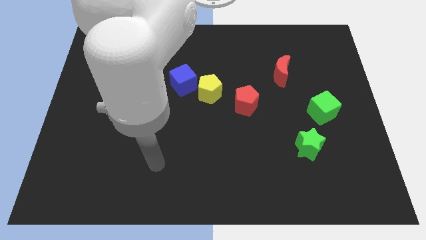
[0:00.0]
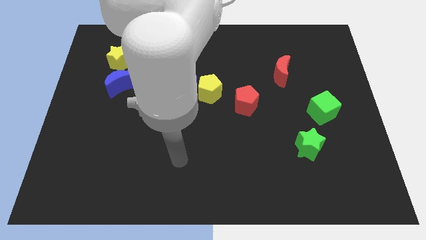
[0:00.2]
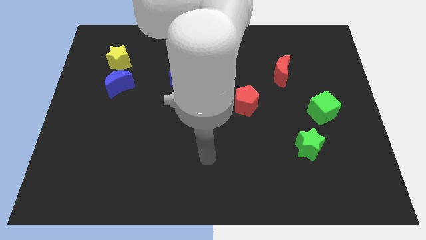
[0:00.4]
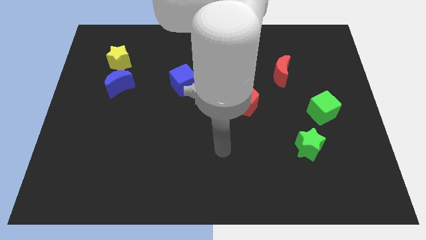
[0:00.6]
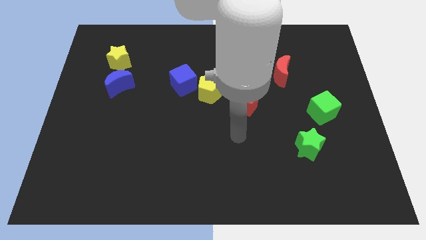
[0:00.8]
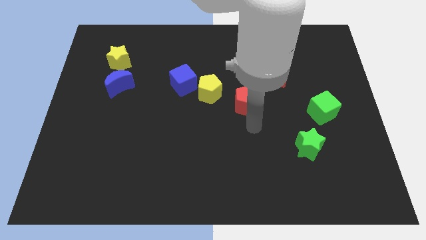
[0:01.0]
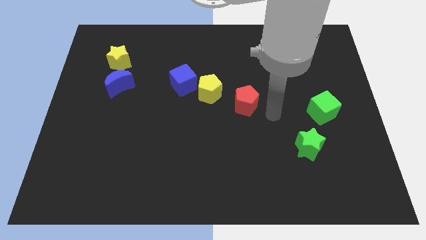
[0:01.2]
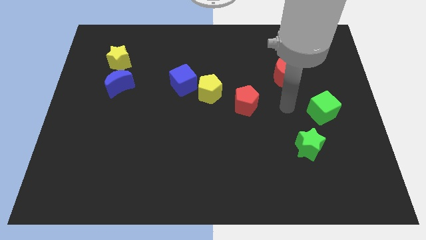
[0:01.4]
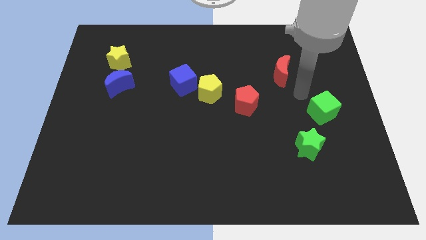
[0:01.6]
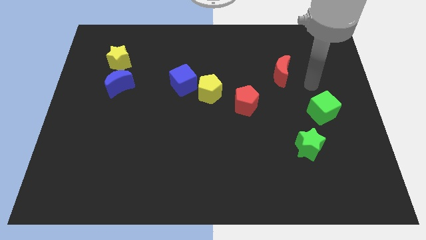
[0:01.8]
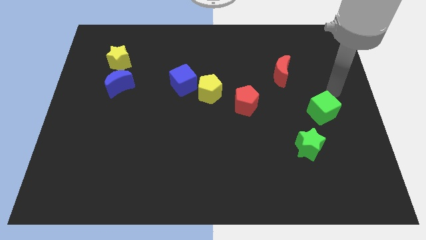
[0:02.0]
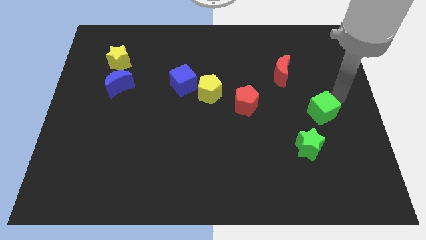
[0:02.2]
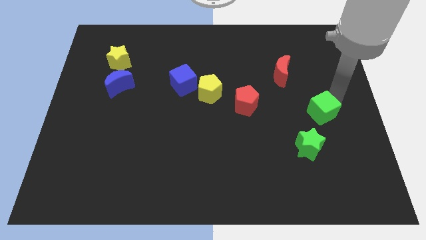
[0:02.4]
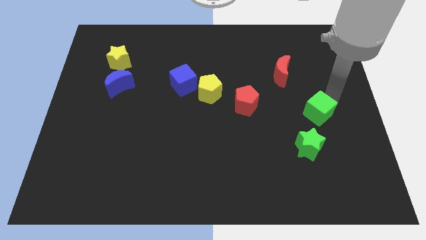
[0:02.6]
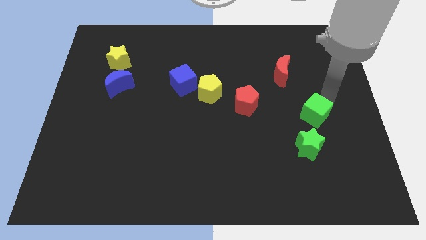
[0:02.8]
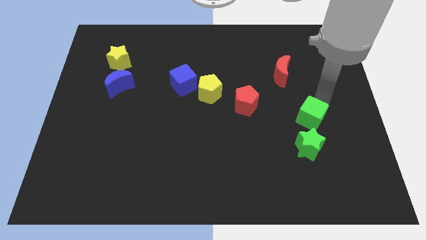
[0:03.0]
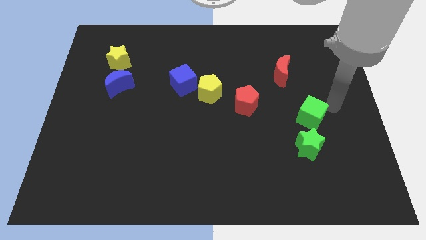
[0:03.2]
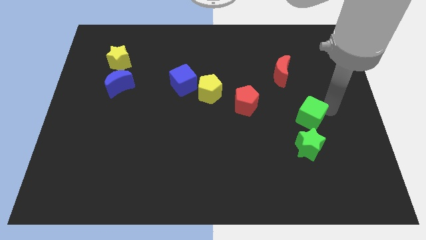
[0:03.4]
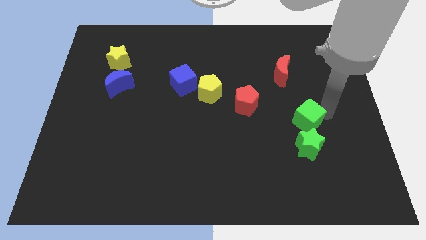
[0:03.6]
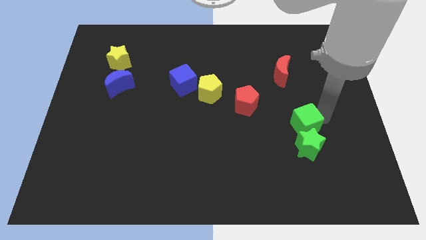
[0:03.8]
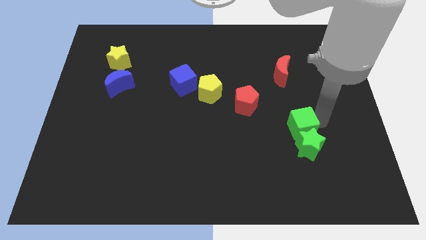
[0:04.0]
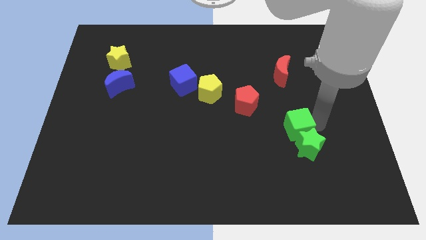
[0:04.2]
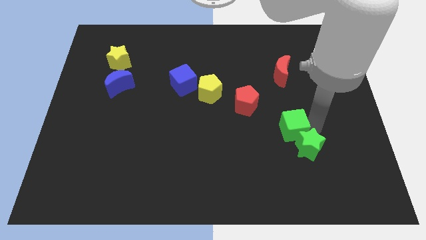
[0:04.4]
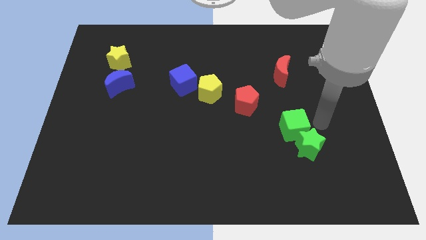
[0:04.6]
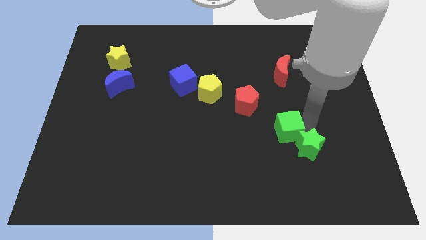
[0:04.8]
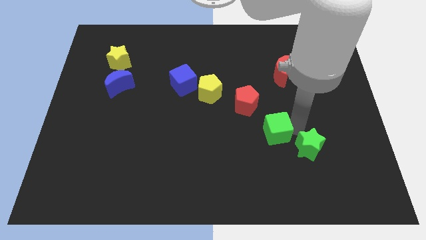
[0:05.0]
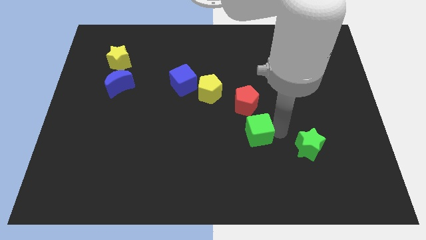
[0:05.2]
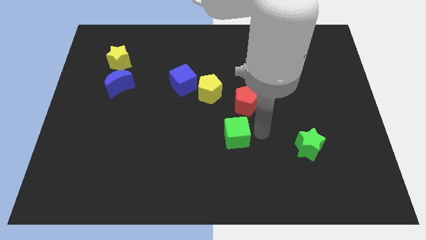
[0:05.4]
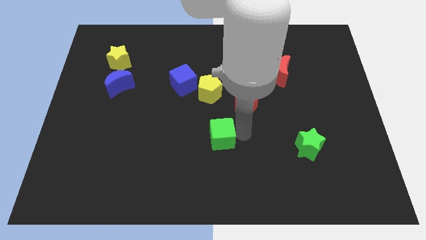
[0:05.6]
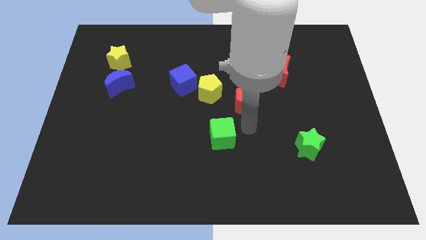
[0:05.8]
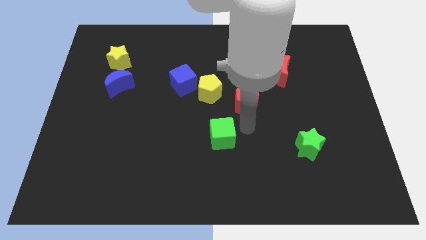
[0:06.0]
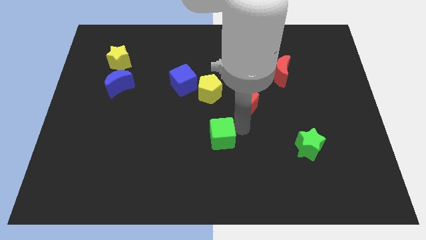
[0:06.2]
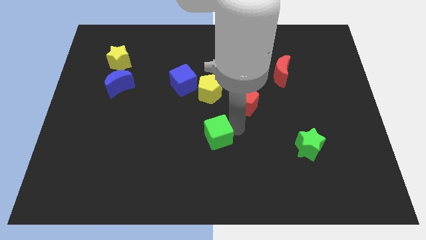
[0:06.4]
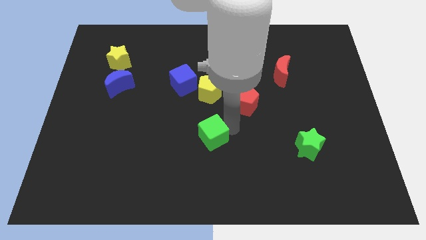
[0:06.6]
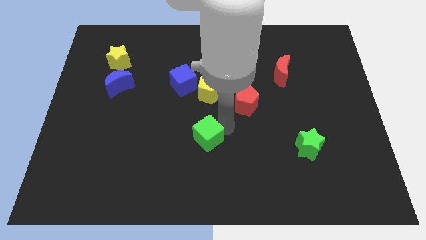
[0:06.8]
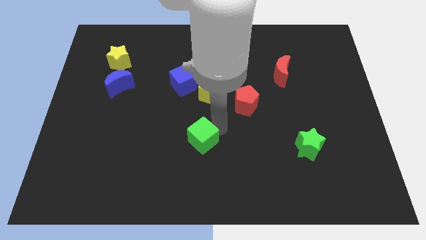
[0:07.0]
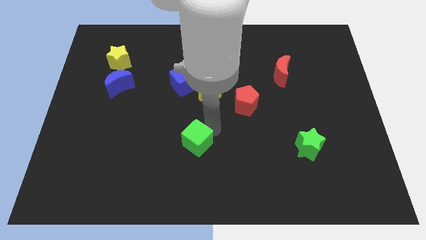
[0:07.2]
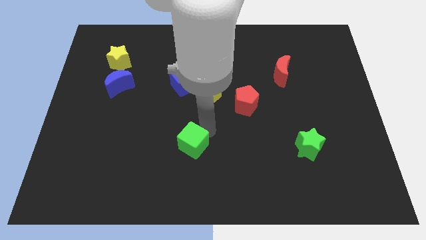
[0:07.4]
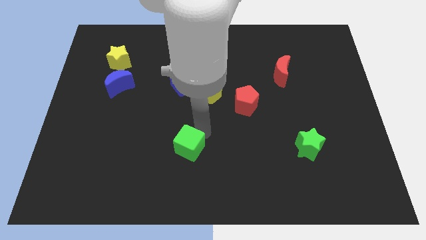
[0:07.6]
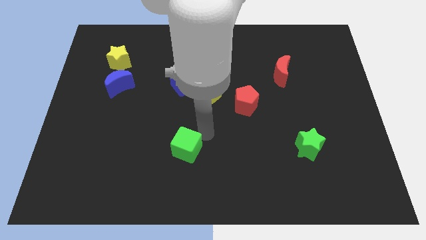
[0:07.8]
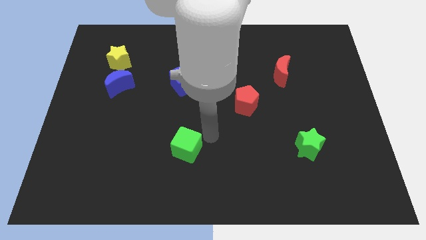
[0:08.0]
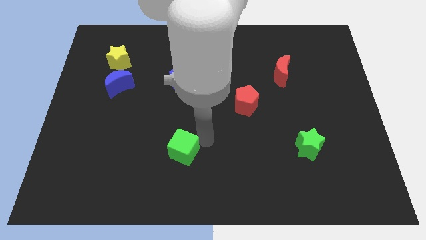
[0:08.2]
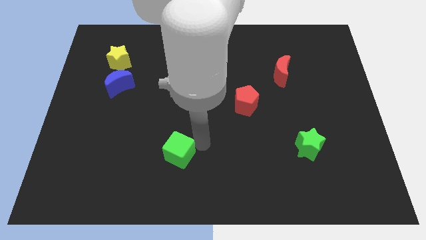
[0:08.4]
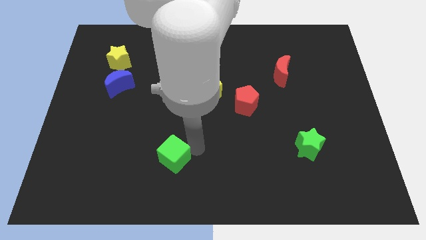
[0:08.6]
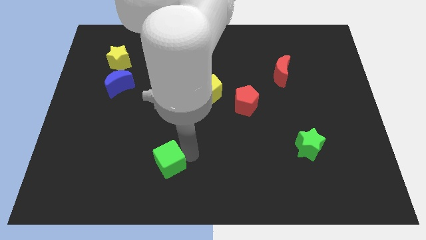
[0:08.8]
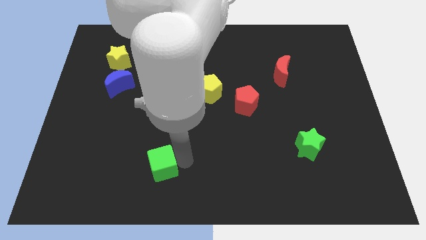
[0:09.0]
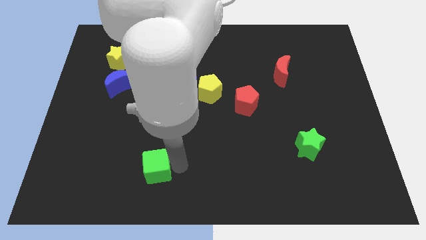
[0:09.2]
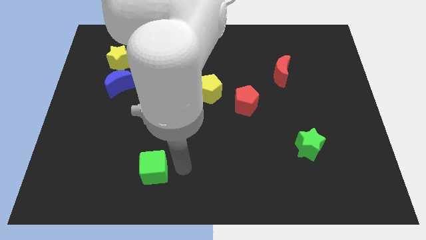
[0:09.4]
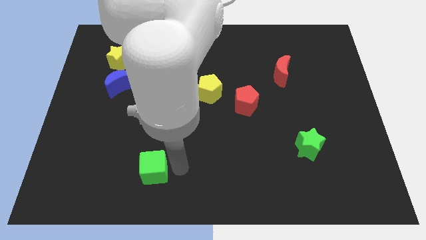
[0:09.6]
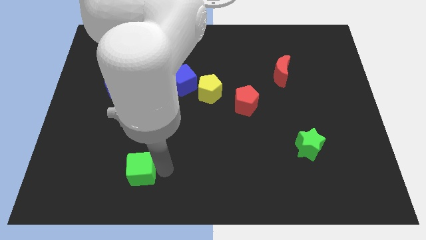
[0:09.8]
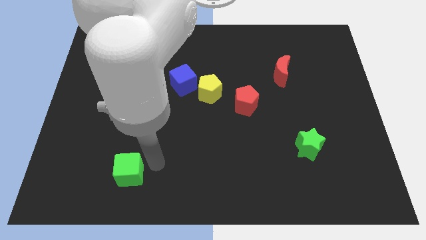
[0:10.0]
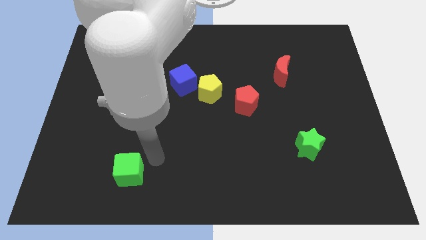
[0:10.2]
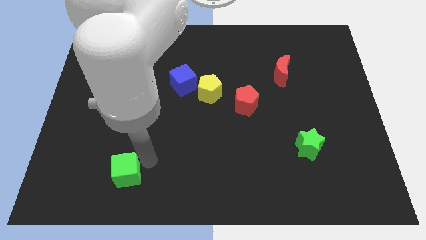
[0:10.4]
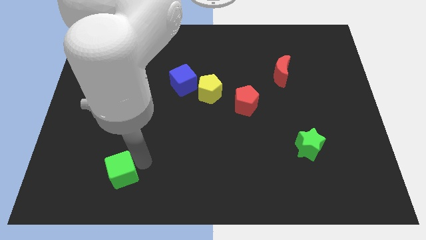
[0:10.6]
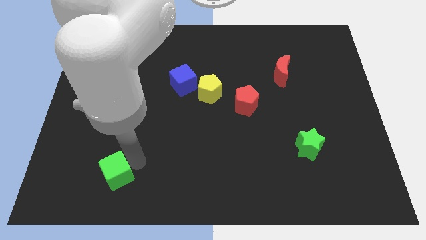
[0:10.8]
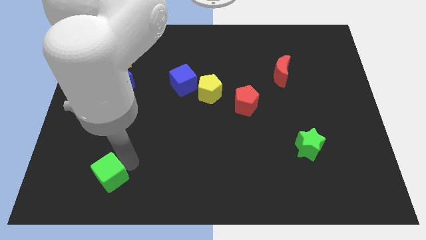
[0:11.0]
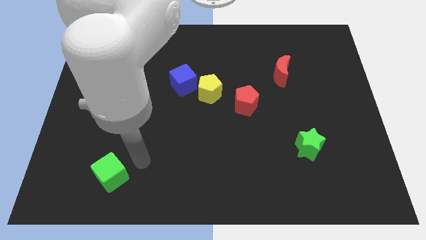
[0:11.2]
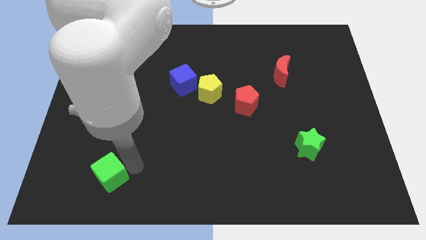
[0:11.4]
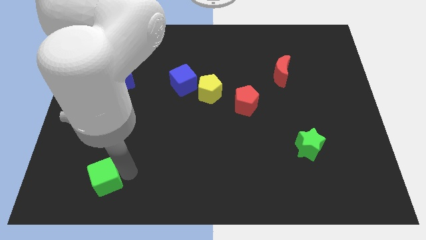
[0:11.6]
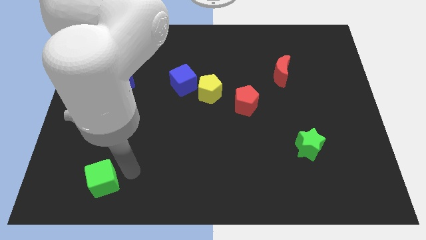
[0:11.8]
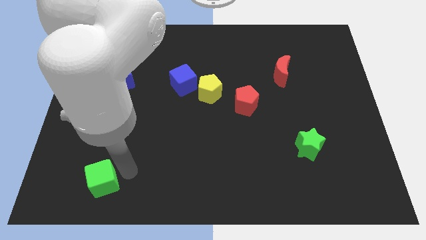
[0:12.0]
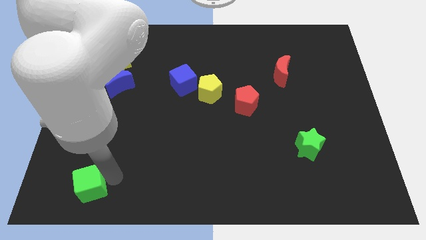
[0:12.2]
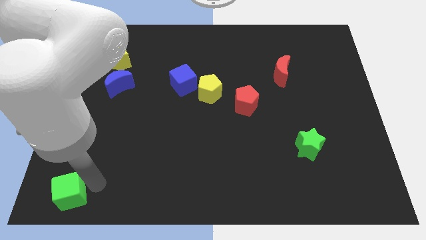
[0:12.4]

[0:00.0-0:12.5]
move the green cube to the lower left corner

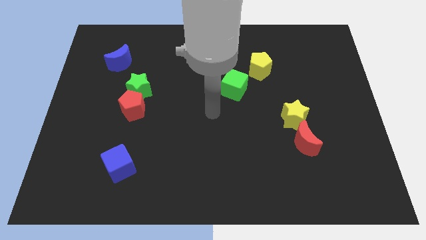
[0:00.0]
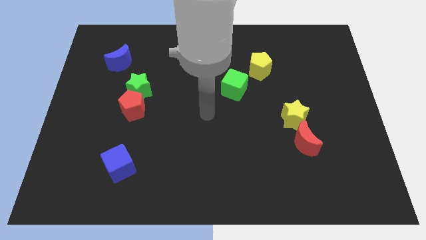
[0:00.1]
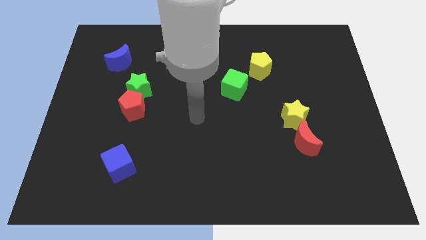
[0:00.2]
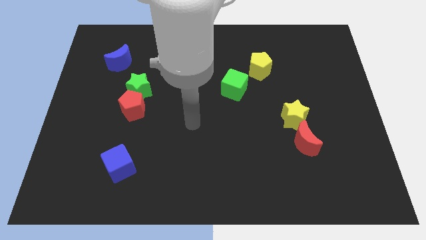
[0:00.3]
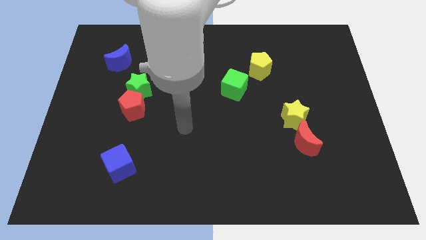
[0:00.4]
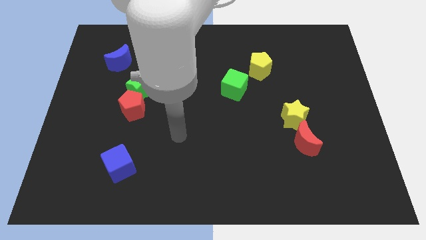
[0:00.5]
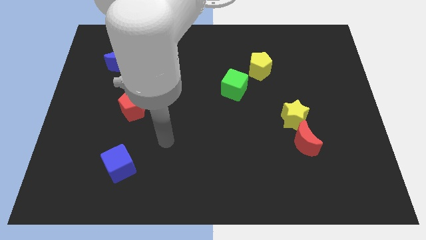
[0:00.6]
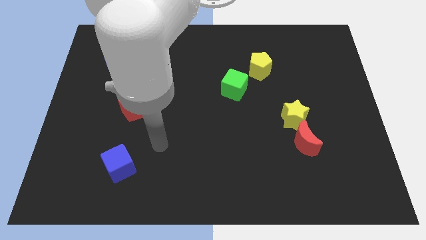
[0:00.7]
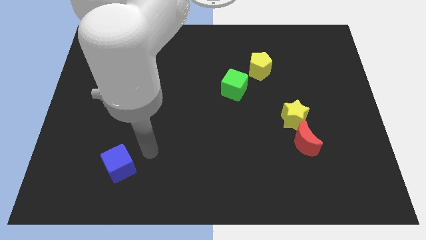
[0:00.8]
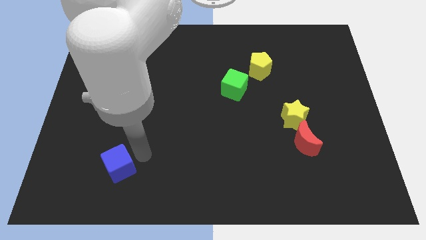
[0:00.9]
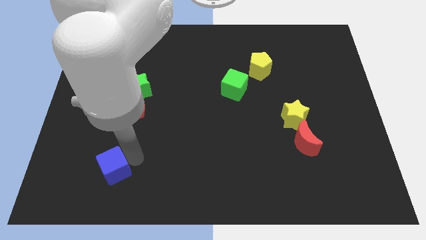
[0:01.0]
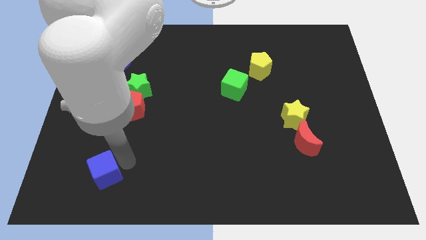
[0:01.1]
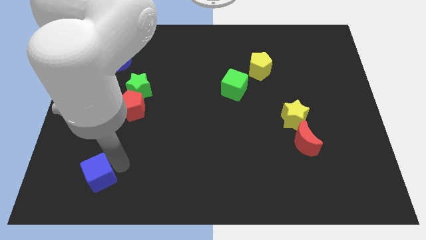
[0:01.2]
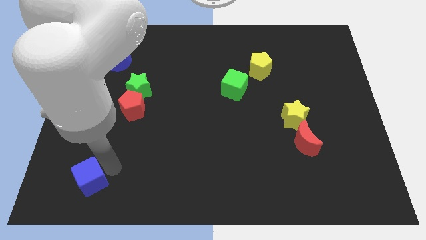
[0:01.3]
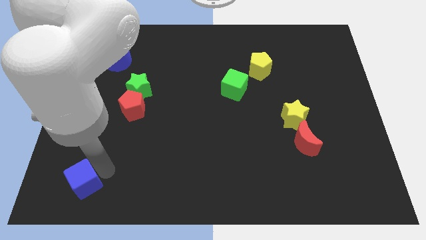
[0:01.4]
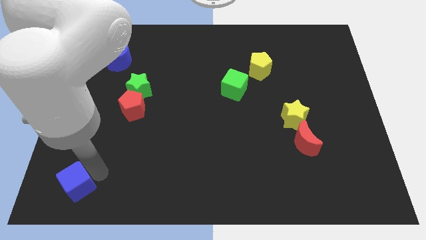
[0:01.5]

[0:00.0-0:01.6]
push the blue cube to the bottom left of the board
